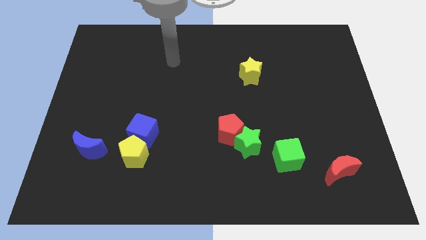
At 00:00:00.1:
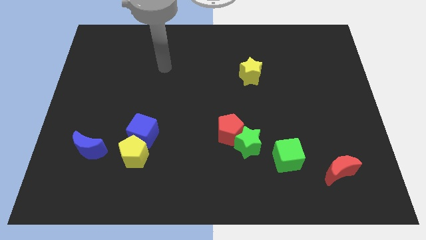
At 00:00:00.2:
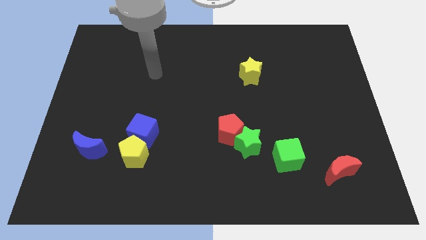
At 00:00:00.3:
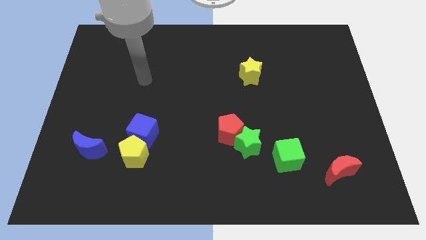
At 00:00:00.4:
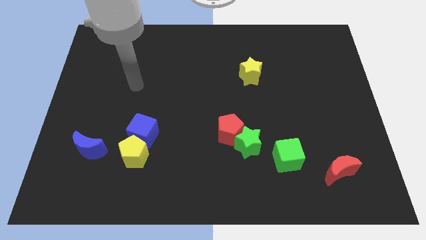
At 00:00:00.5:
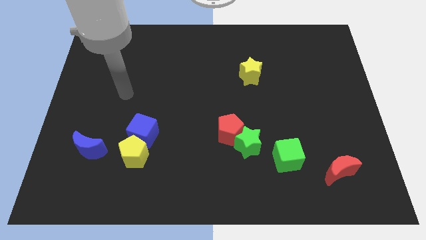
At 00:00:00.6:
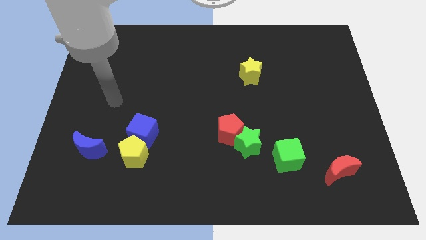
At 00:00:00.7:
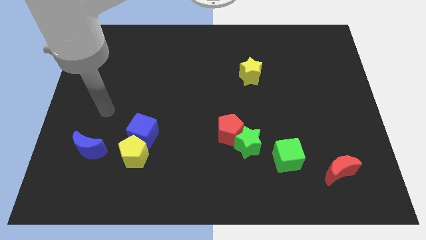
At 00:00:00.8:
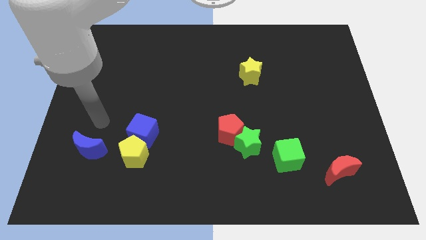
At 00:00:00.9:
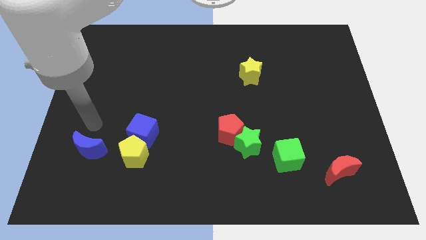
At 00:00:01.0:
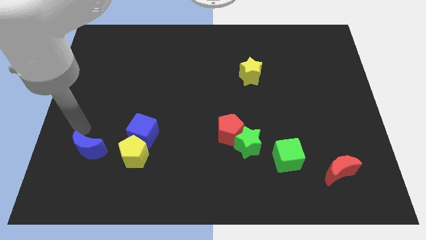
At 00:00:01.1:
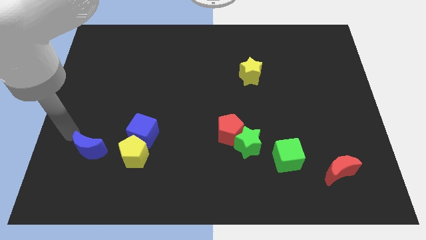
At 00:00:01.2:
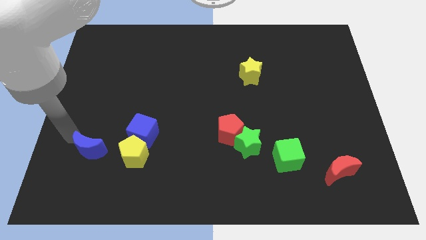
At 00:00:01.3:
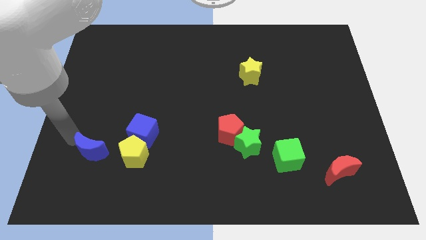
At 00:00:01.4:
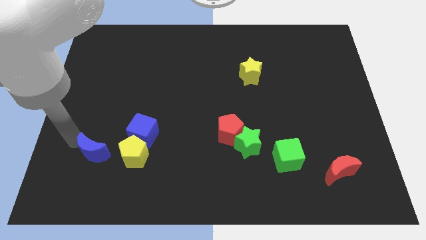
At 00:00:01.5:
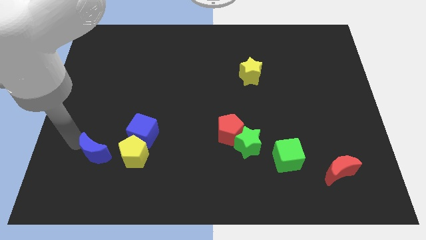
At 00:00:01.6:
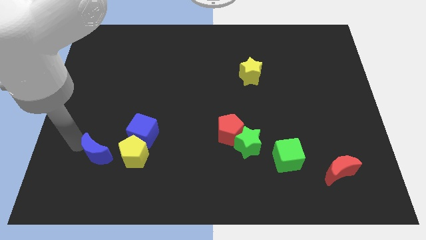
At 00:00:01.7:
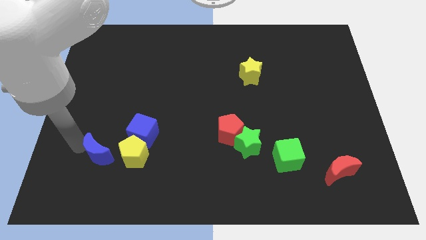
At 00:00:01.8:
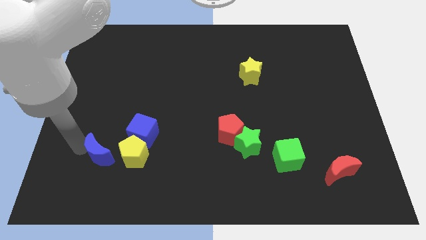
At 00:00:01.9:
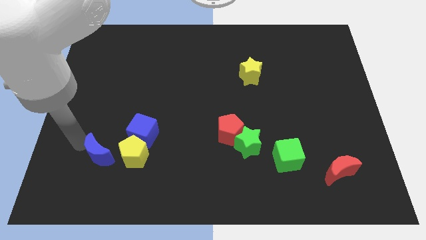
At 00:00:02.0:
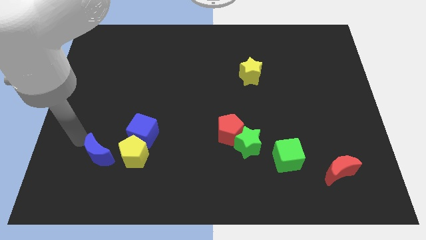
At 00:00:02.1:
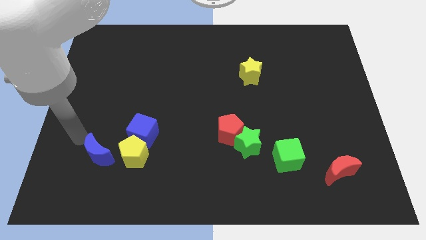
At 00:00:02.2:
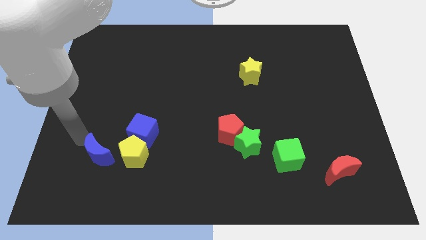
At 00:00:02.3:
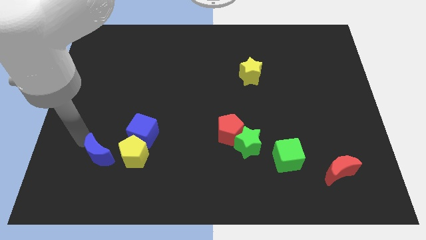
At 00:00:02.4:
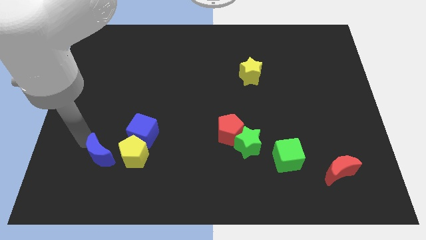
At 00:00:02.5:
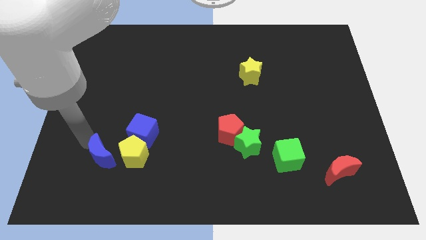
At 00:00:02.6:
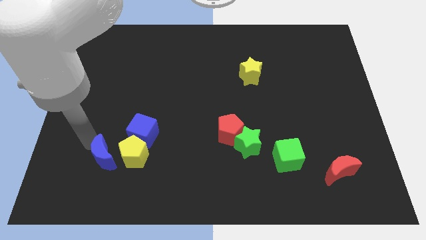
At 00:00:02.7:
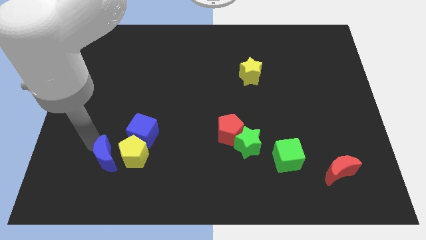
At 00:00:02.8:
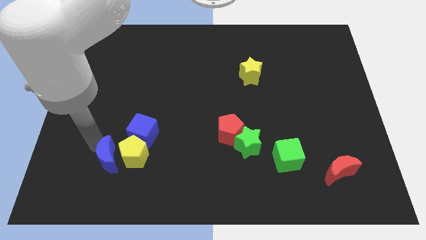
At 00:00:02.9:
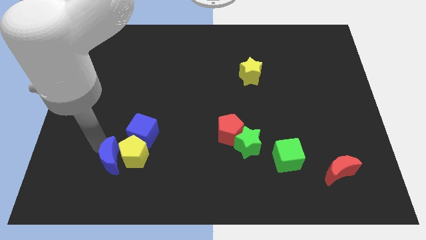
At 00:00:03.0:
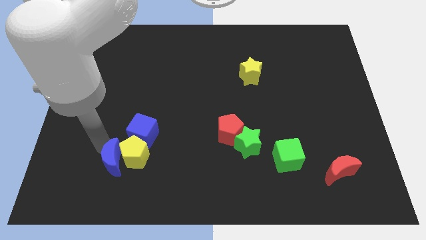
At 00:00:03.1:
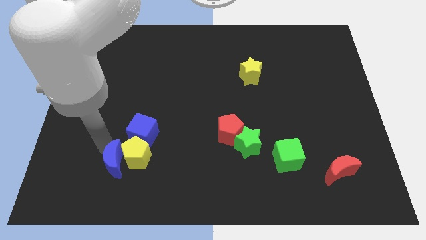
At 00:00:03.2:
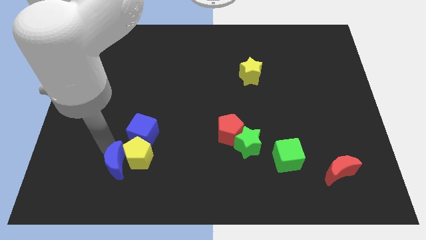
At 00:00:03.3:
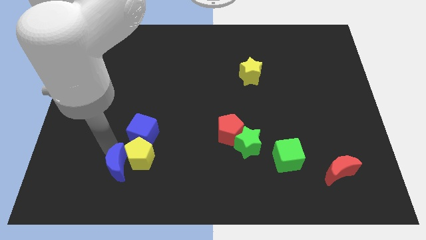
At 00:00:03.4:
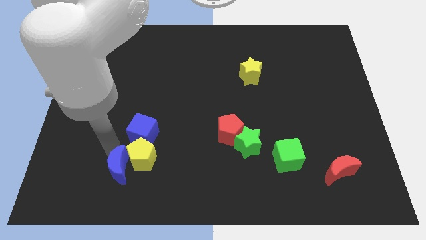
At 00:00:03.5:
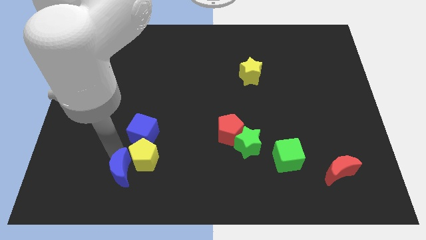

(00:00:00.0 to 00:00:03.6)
move the blue moon slightly right

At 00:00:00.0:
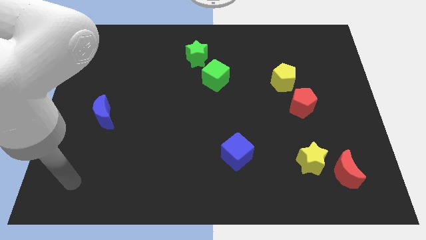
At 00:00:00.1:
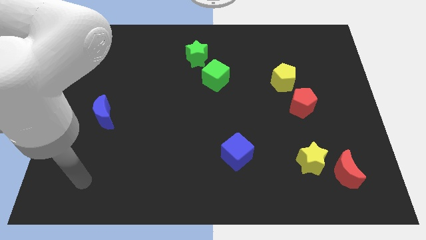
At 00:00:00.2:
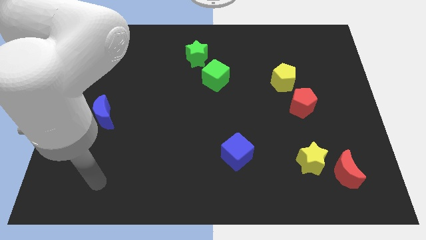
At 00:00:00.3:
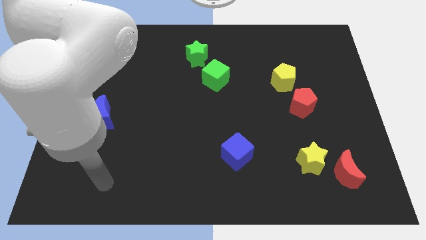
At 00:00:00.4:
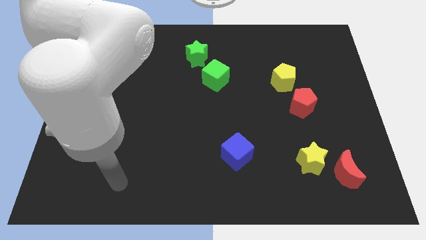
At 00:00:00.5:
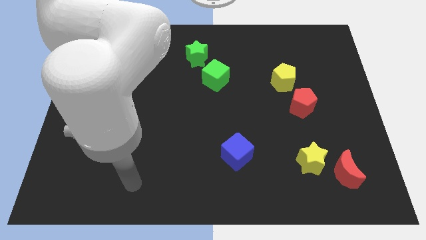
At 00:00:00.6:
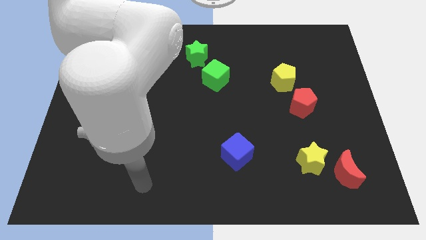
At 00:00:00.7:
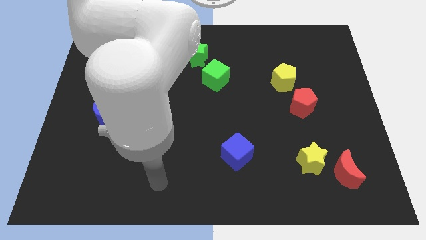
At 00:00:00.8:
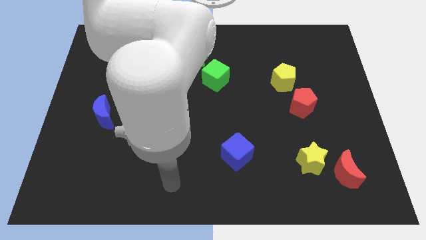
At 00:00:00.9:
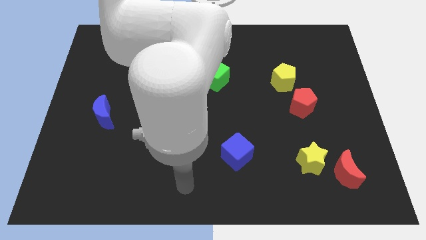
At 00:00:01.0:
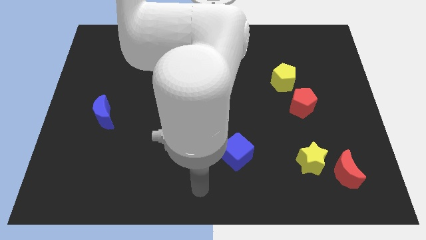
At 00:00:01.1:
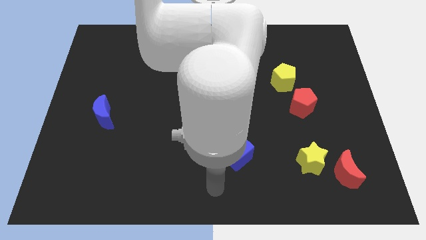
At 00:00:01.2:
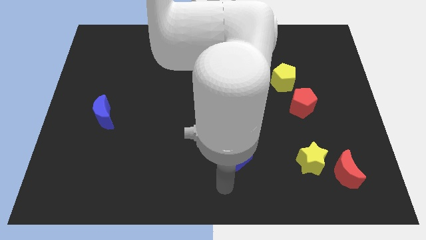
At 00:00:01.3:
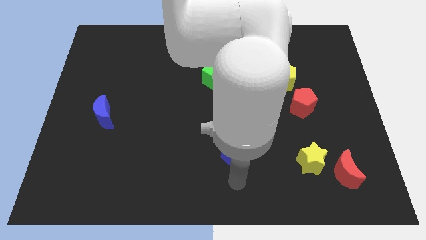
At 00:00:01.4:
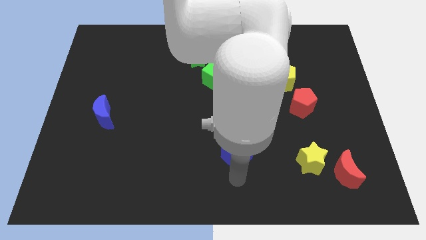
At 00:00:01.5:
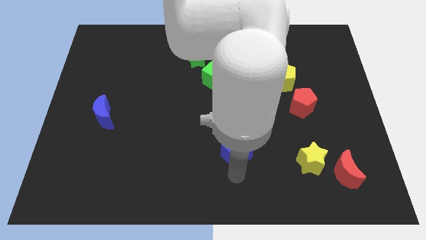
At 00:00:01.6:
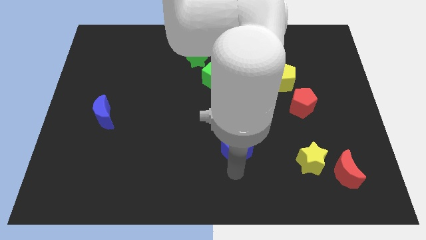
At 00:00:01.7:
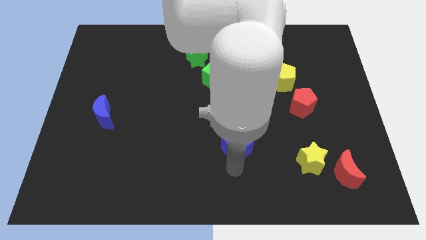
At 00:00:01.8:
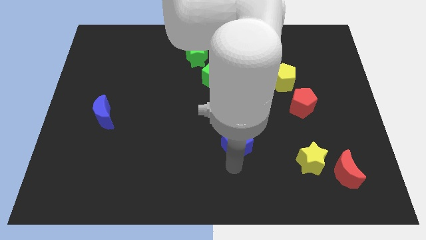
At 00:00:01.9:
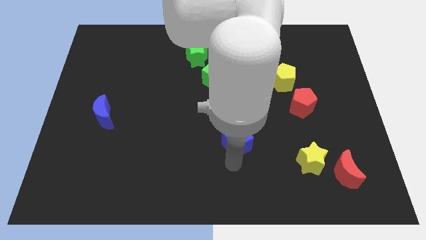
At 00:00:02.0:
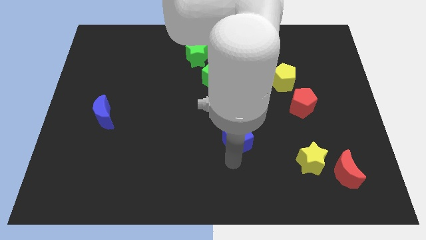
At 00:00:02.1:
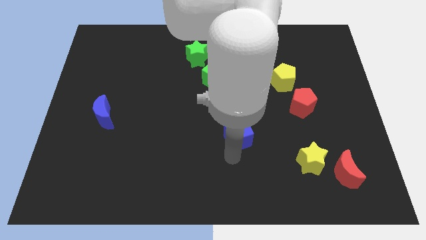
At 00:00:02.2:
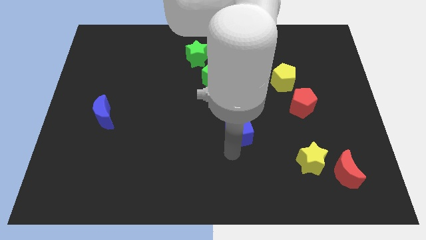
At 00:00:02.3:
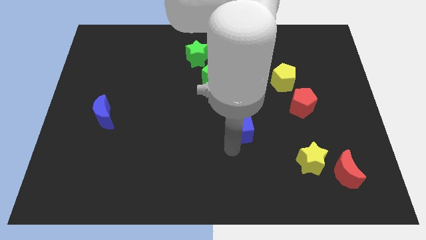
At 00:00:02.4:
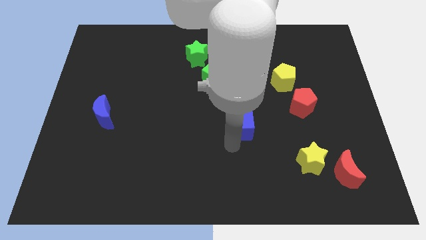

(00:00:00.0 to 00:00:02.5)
move the blue cube upwards a little bit

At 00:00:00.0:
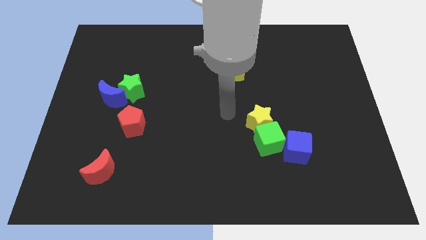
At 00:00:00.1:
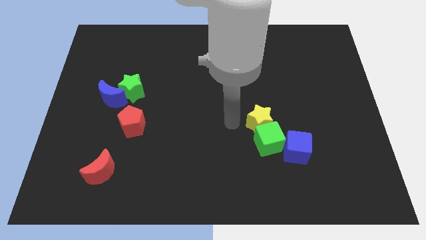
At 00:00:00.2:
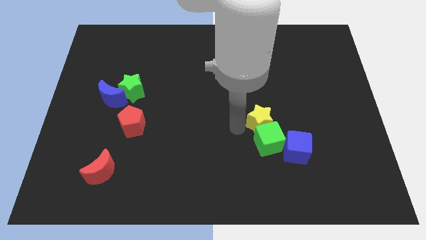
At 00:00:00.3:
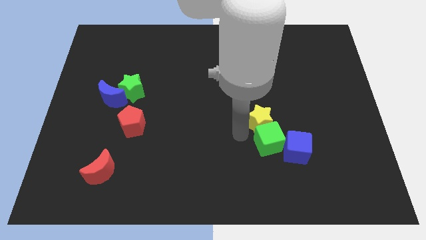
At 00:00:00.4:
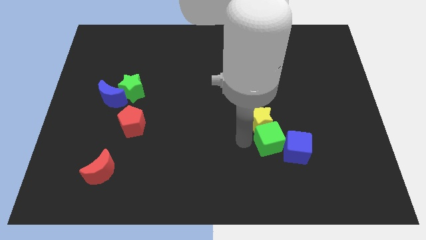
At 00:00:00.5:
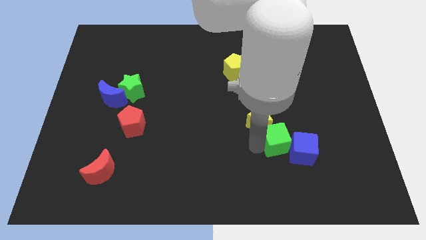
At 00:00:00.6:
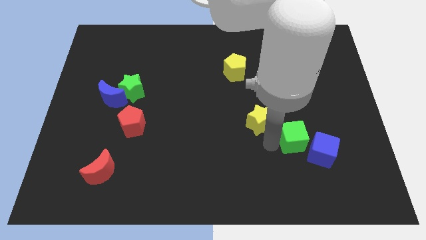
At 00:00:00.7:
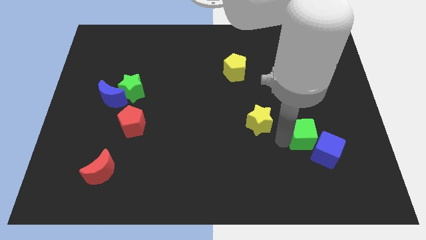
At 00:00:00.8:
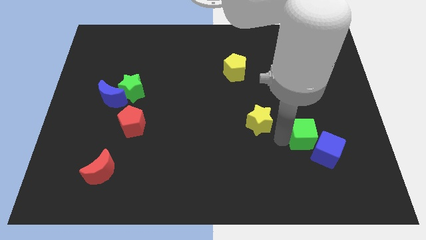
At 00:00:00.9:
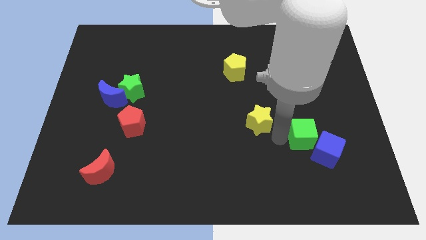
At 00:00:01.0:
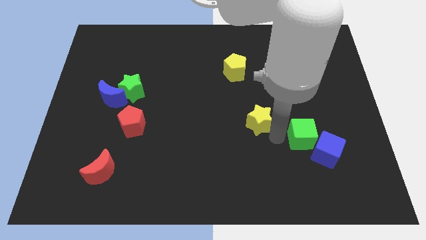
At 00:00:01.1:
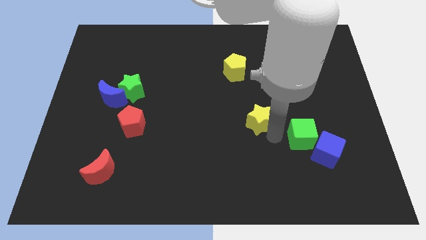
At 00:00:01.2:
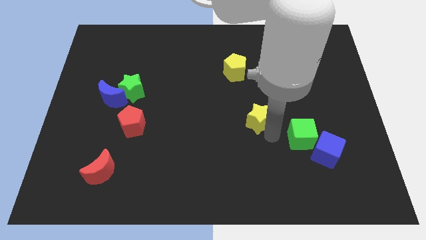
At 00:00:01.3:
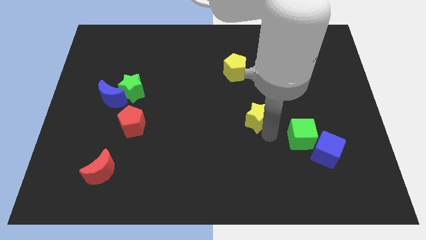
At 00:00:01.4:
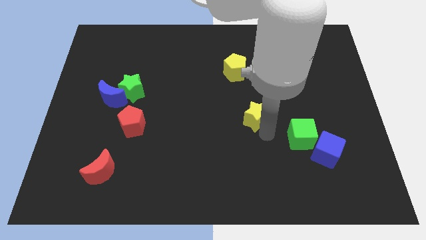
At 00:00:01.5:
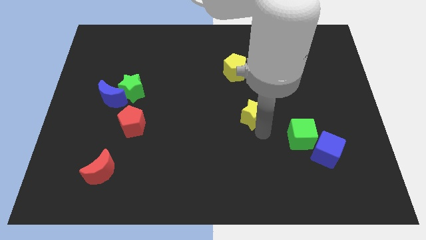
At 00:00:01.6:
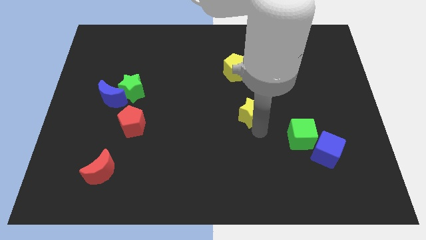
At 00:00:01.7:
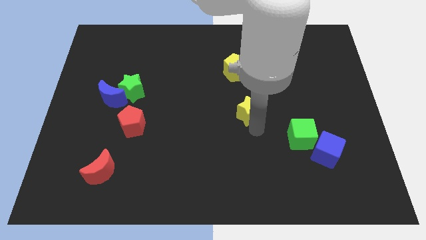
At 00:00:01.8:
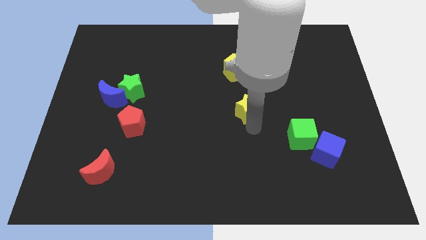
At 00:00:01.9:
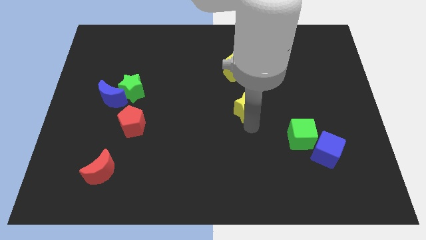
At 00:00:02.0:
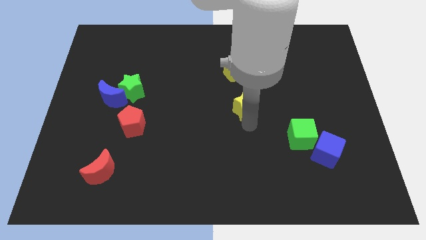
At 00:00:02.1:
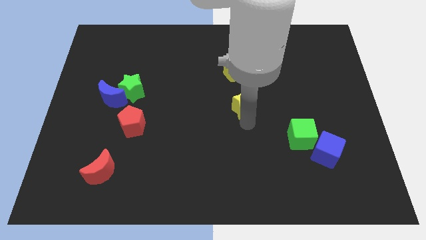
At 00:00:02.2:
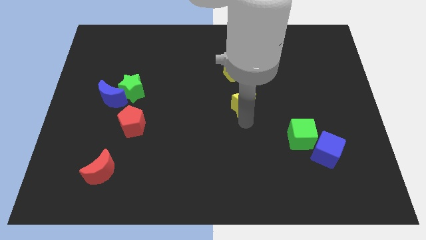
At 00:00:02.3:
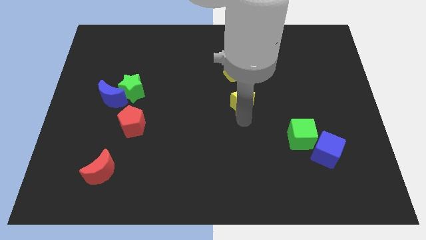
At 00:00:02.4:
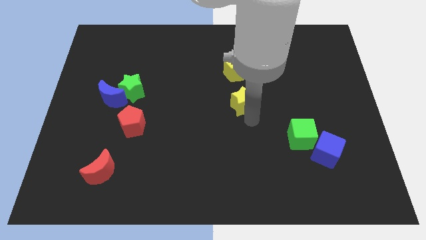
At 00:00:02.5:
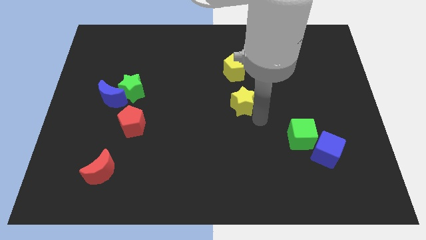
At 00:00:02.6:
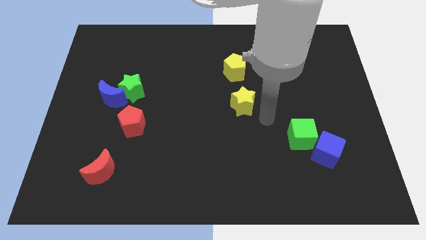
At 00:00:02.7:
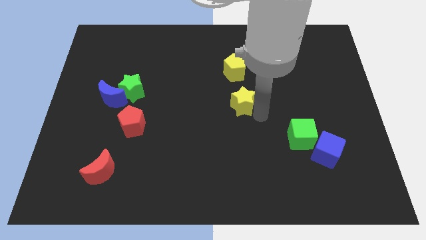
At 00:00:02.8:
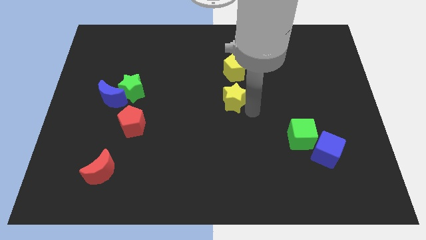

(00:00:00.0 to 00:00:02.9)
slightly slide the yellow star upwards and left diagonally
